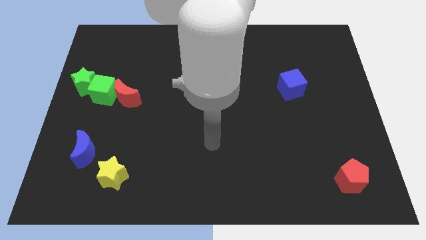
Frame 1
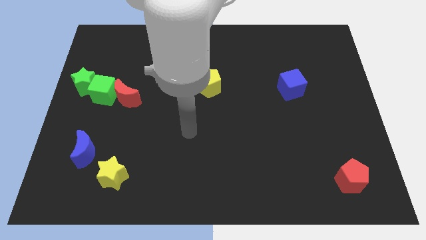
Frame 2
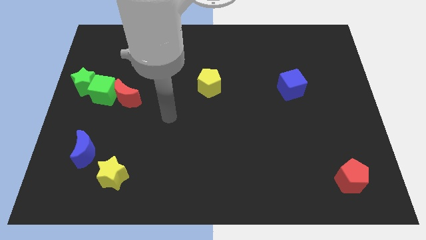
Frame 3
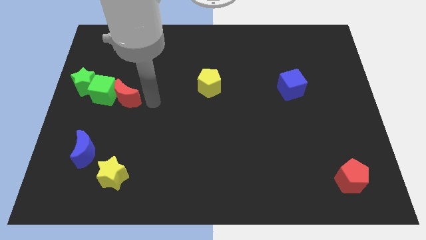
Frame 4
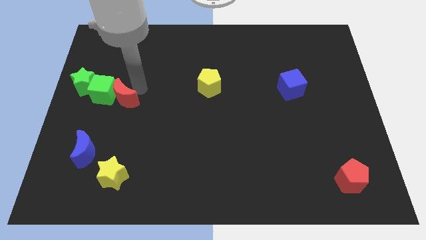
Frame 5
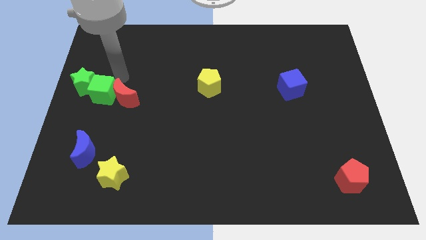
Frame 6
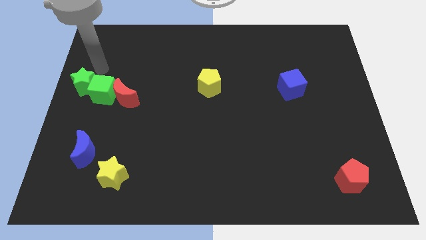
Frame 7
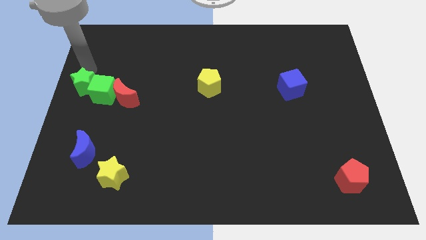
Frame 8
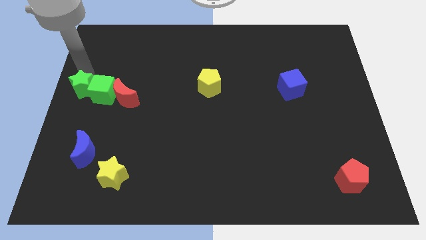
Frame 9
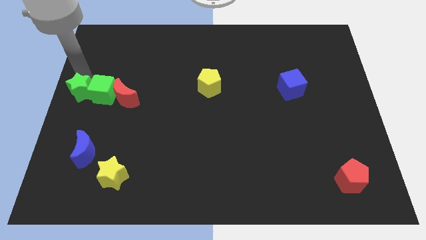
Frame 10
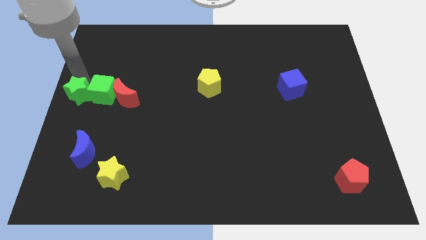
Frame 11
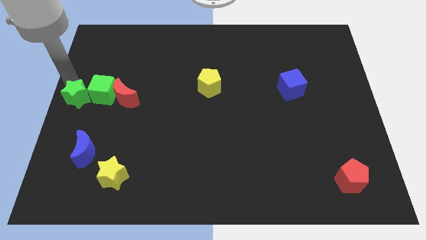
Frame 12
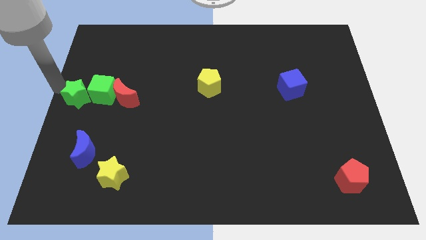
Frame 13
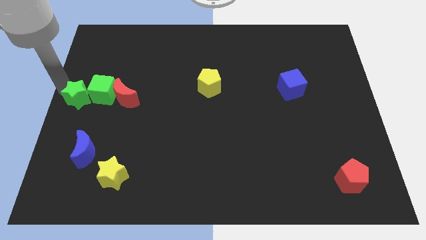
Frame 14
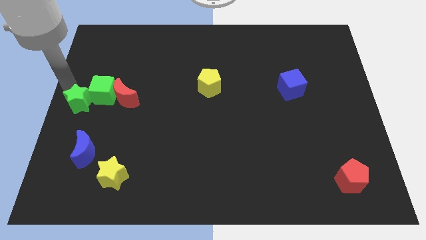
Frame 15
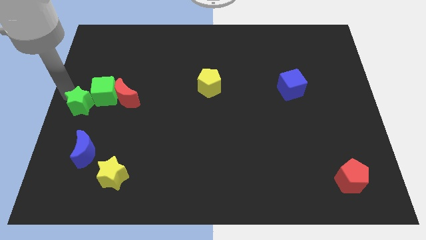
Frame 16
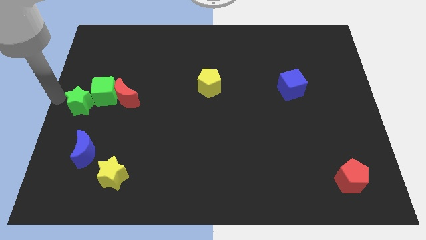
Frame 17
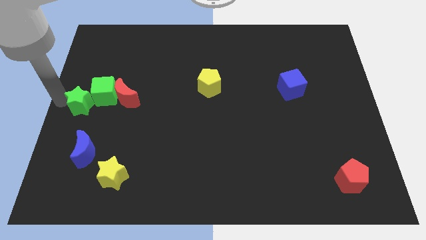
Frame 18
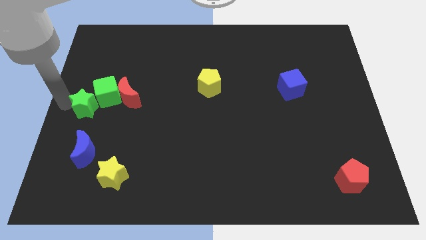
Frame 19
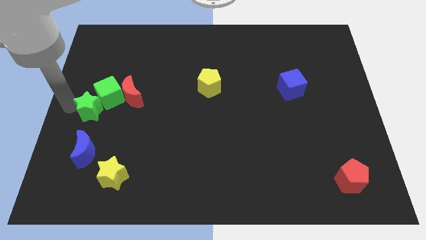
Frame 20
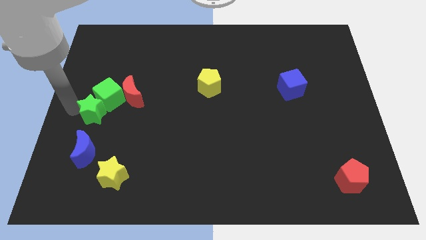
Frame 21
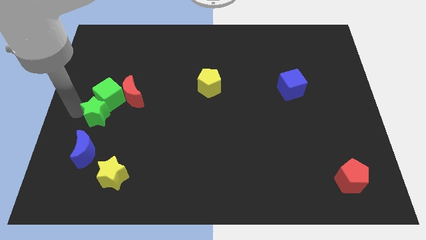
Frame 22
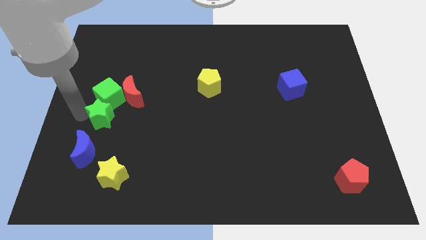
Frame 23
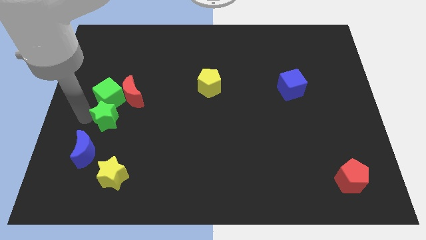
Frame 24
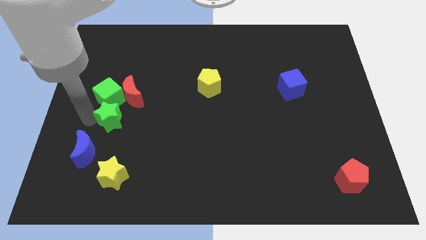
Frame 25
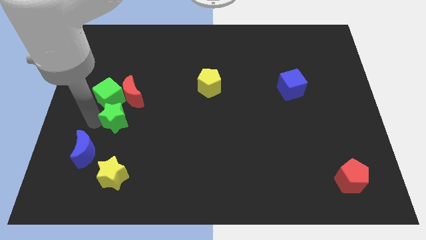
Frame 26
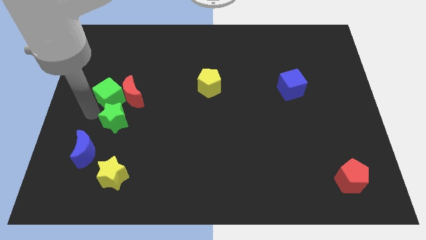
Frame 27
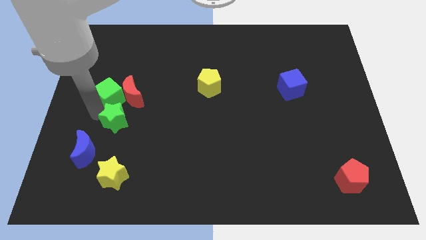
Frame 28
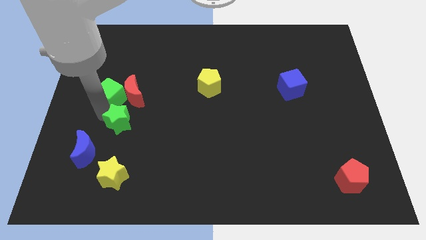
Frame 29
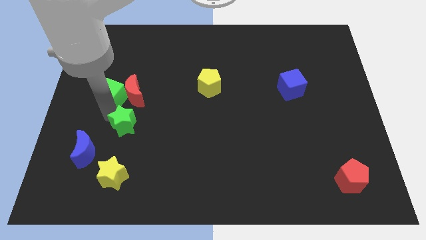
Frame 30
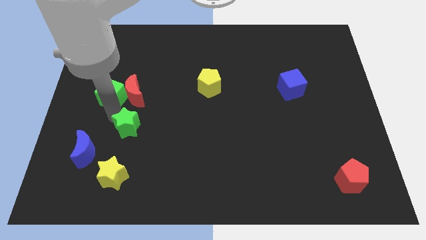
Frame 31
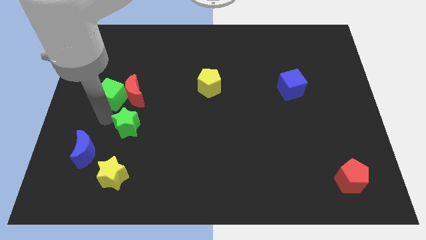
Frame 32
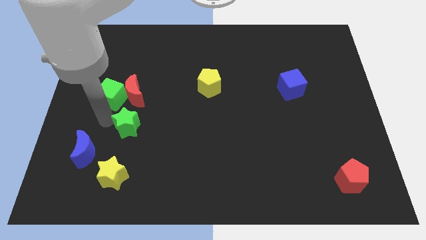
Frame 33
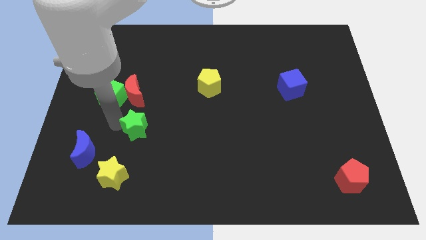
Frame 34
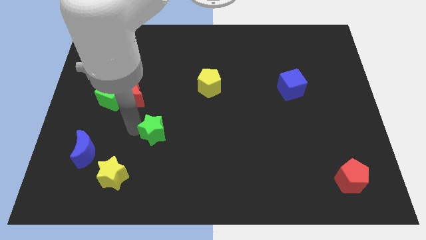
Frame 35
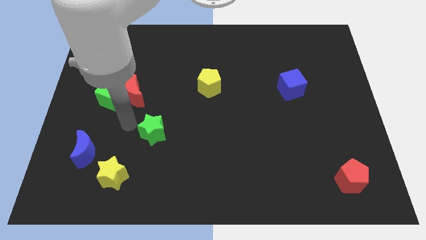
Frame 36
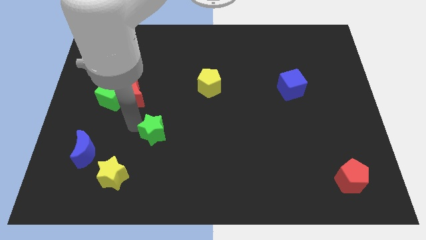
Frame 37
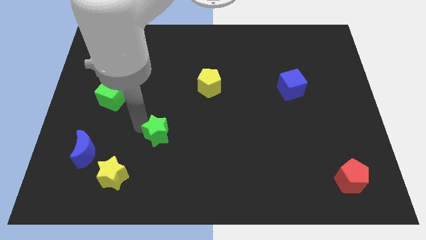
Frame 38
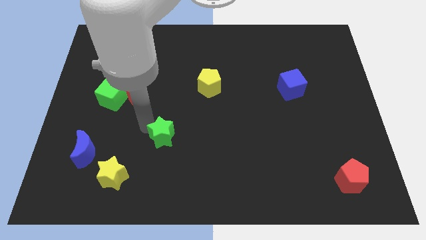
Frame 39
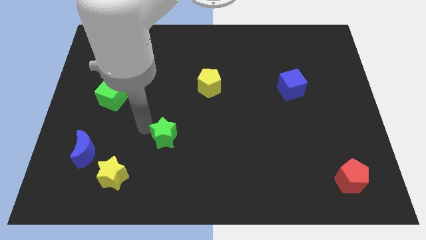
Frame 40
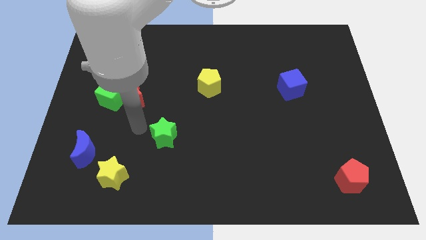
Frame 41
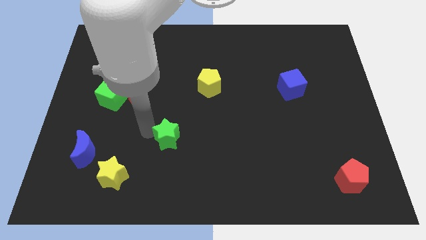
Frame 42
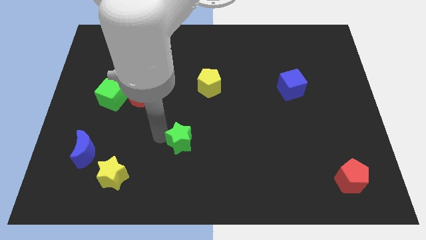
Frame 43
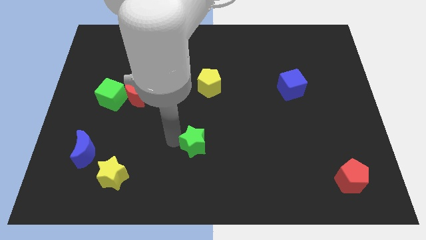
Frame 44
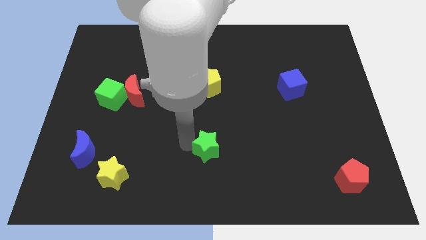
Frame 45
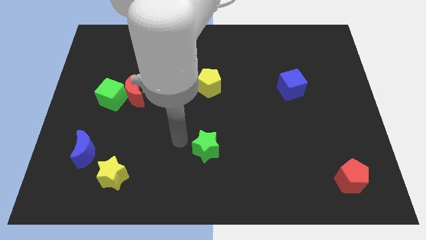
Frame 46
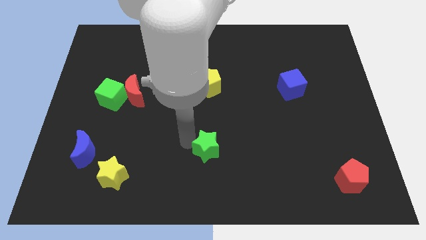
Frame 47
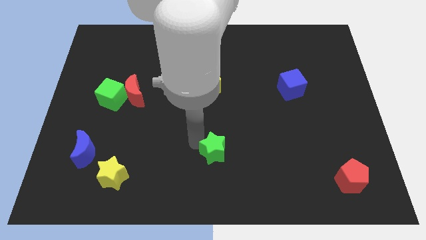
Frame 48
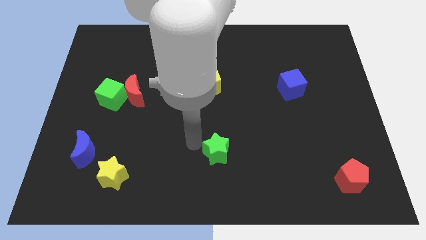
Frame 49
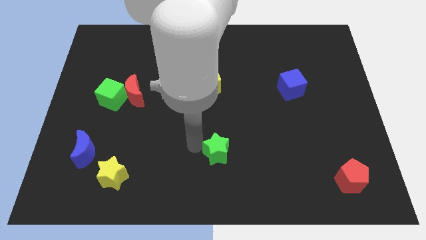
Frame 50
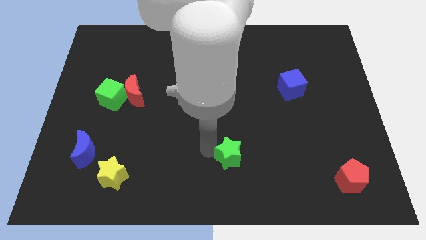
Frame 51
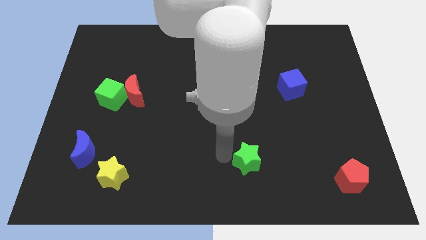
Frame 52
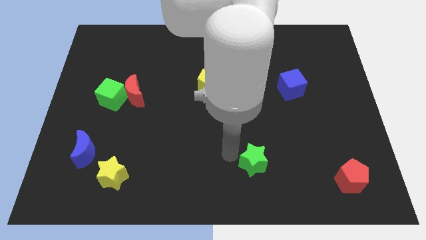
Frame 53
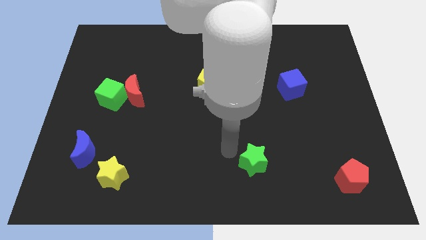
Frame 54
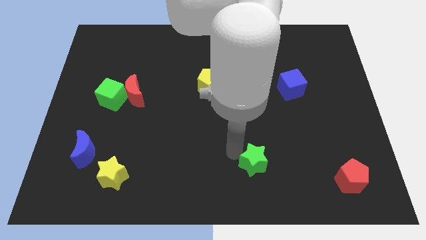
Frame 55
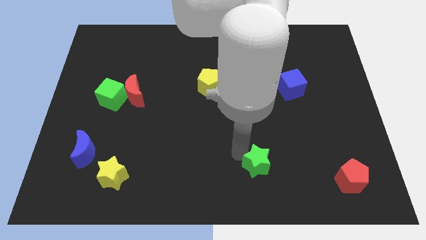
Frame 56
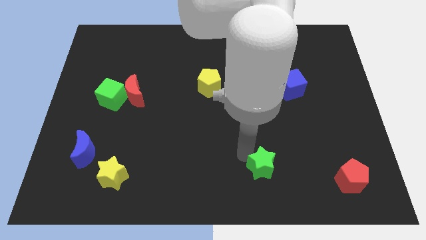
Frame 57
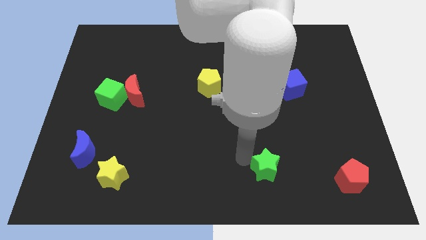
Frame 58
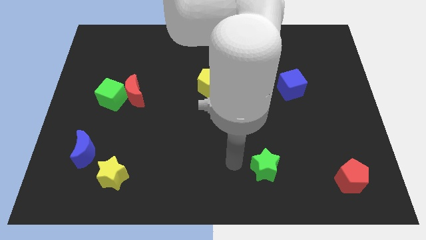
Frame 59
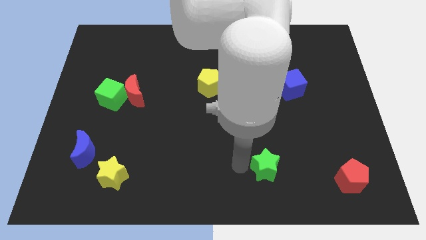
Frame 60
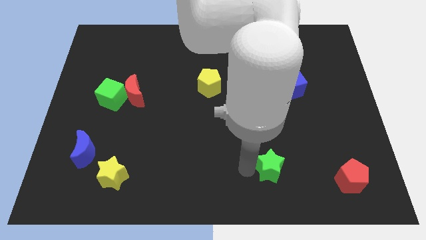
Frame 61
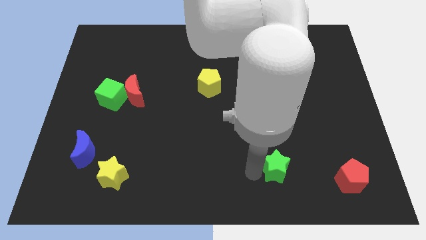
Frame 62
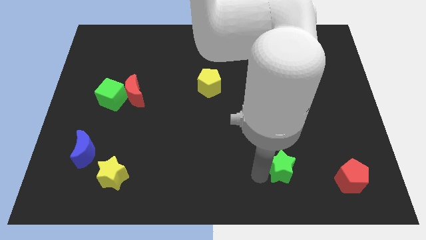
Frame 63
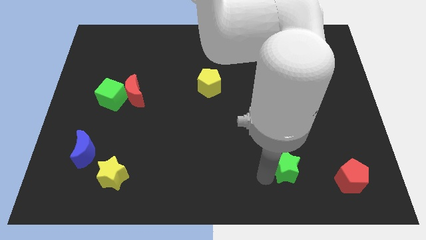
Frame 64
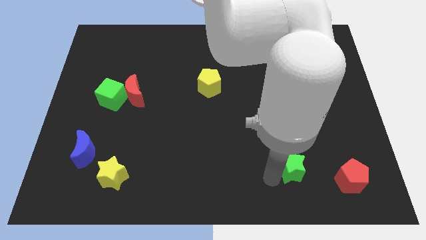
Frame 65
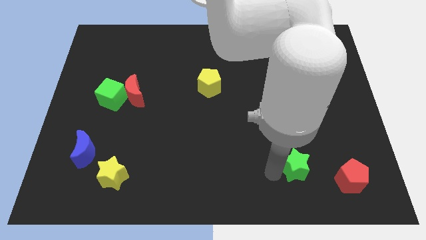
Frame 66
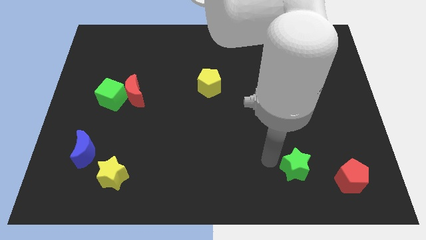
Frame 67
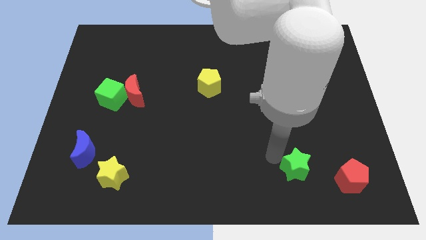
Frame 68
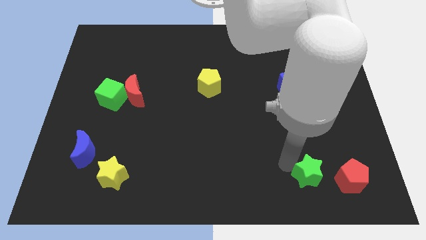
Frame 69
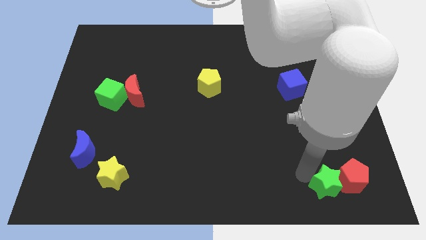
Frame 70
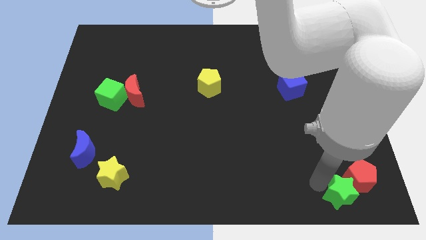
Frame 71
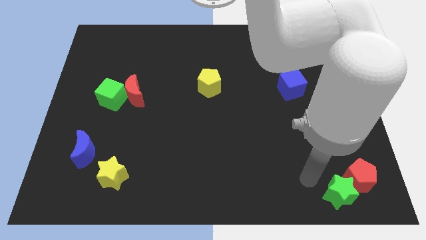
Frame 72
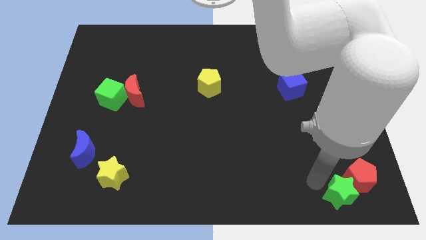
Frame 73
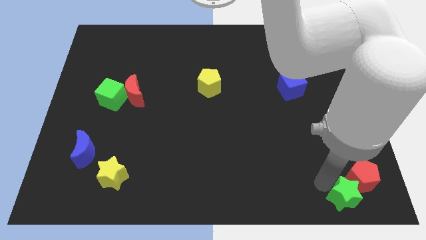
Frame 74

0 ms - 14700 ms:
slide the green star to the bottom right corner
